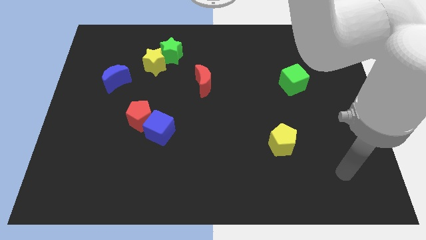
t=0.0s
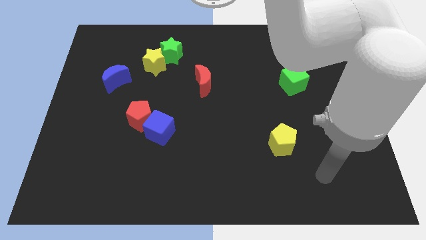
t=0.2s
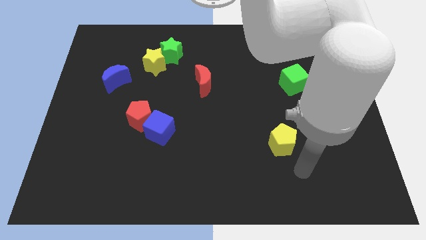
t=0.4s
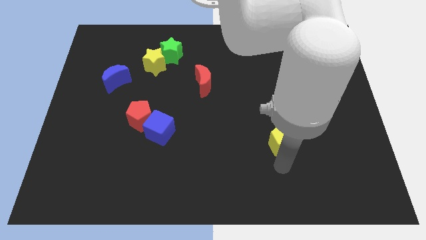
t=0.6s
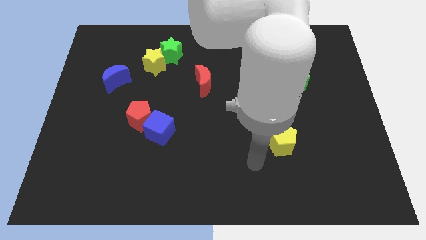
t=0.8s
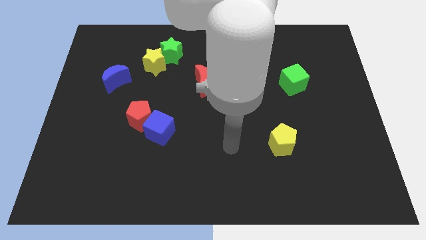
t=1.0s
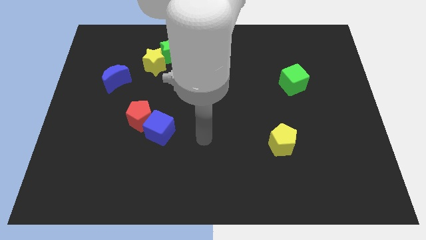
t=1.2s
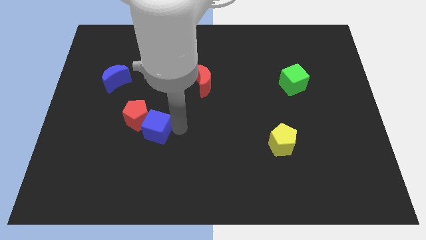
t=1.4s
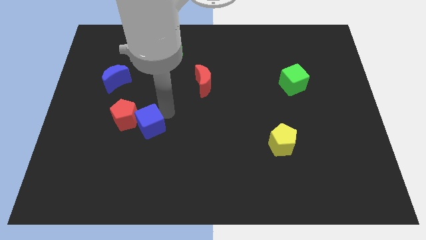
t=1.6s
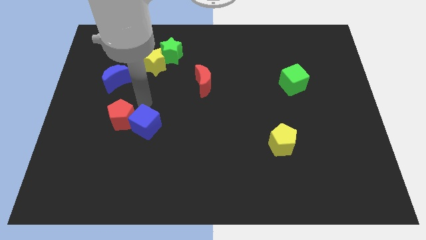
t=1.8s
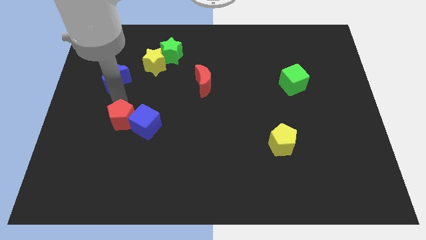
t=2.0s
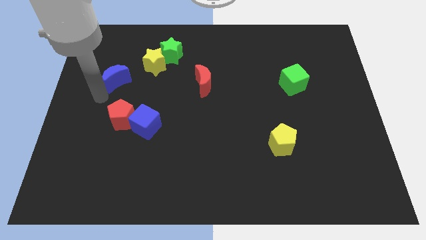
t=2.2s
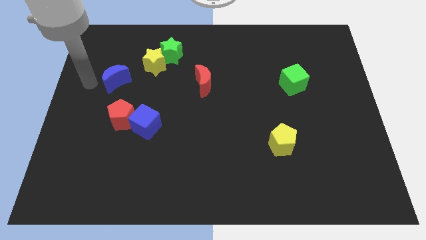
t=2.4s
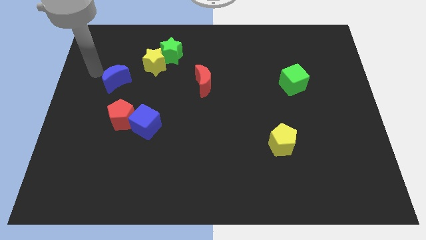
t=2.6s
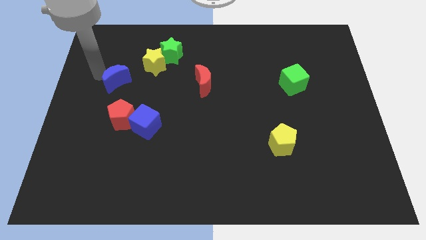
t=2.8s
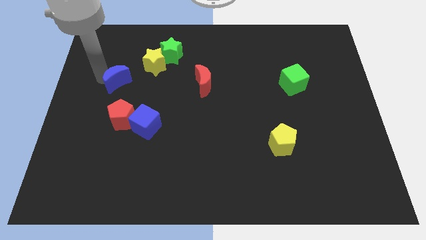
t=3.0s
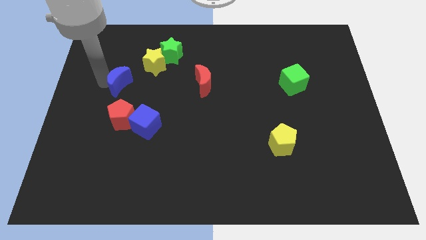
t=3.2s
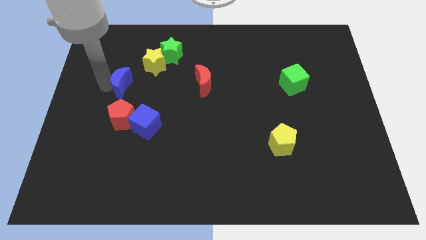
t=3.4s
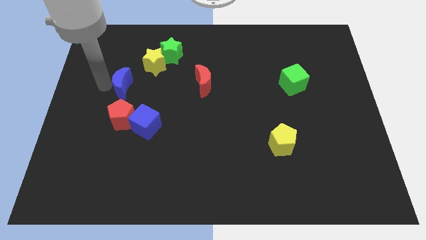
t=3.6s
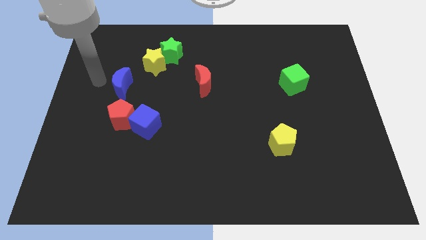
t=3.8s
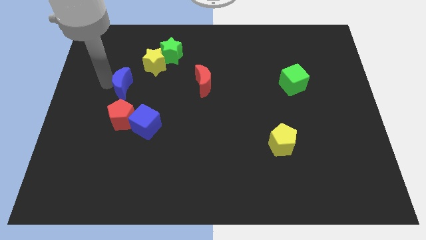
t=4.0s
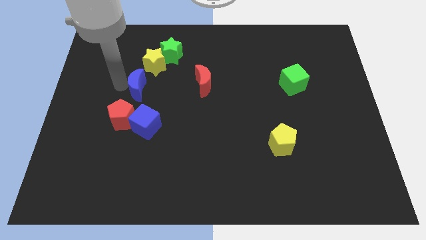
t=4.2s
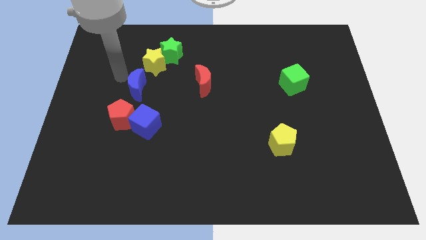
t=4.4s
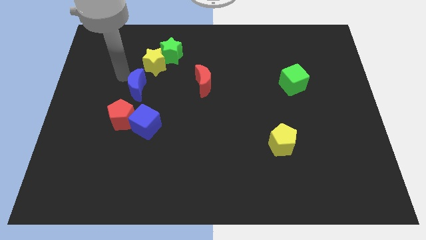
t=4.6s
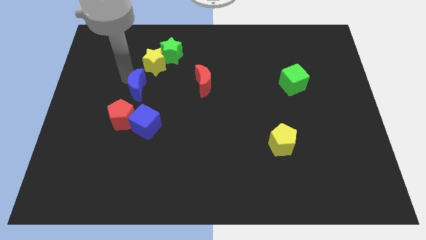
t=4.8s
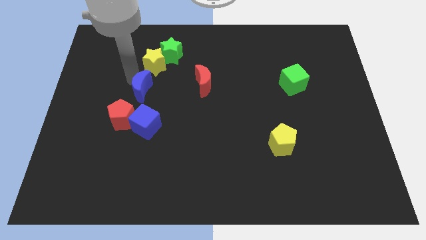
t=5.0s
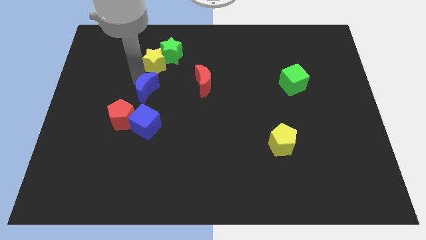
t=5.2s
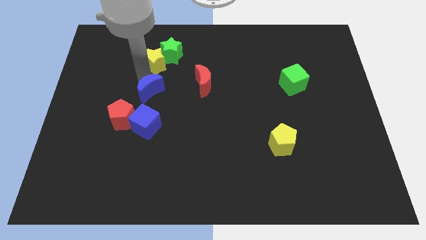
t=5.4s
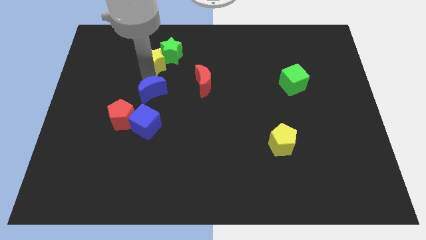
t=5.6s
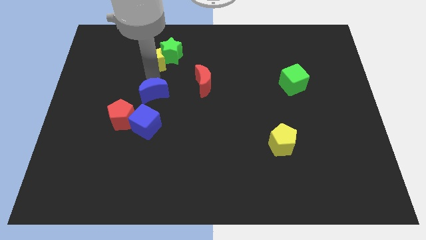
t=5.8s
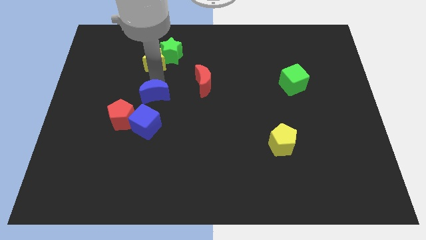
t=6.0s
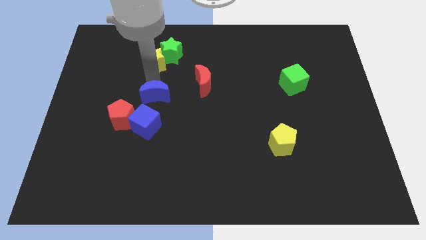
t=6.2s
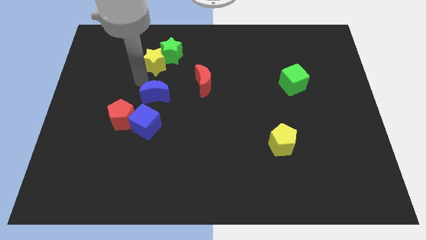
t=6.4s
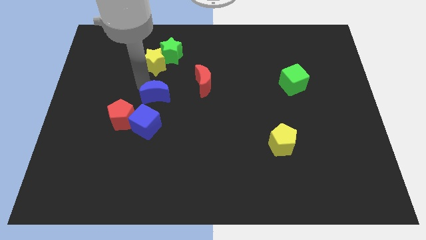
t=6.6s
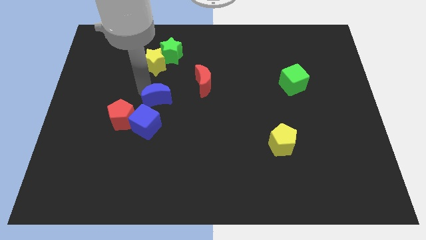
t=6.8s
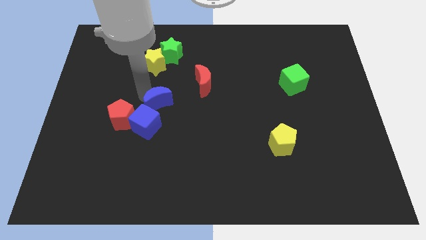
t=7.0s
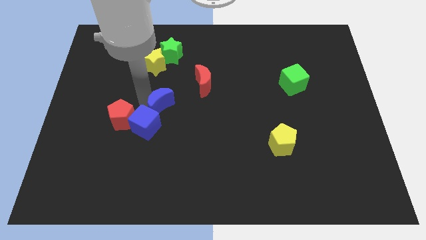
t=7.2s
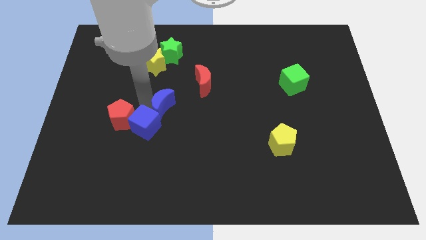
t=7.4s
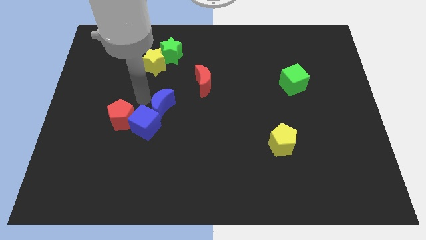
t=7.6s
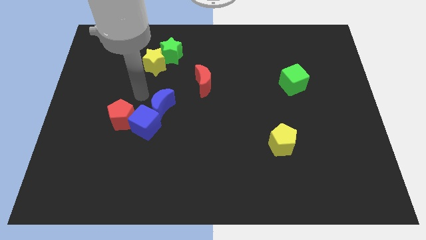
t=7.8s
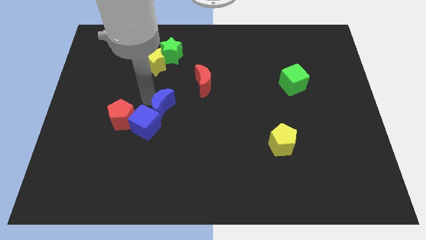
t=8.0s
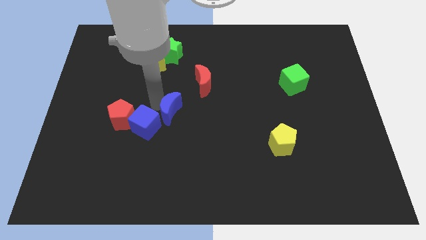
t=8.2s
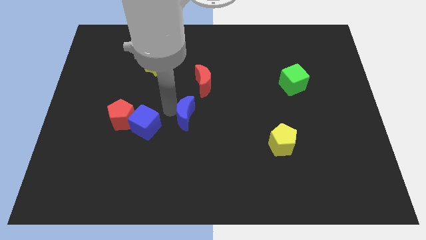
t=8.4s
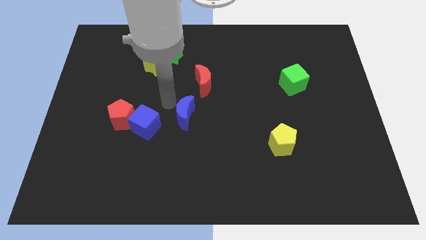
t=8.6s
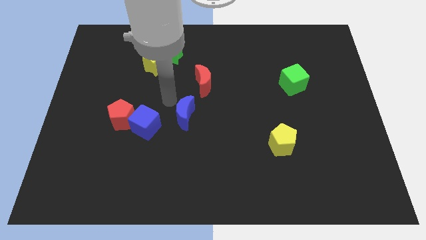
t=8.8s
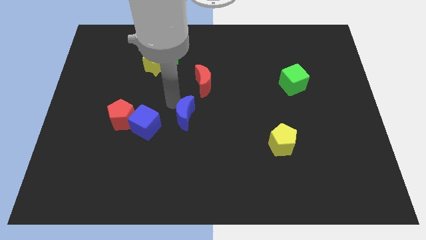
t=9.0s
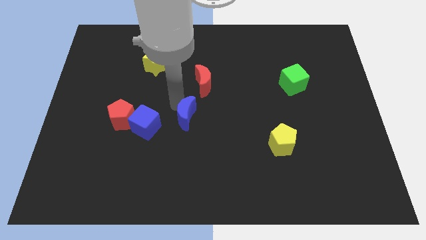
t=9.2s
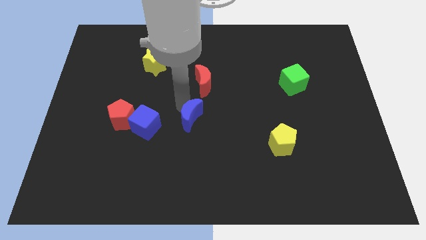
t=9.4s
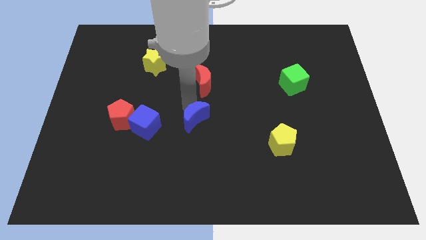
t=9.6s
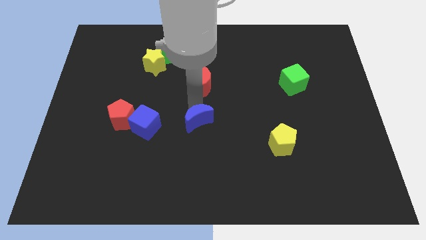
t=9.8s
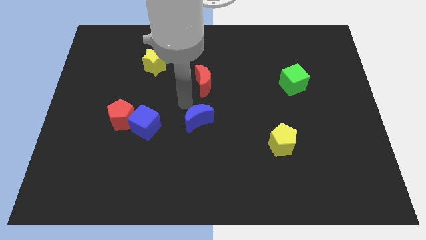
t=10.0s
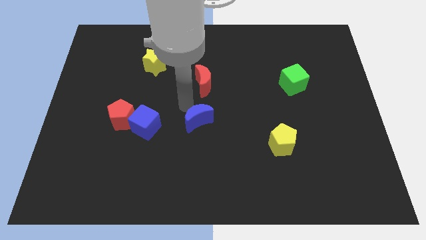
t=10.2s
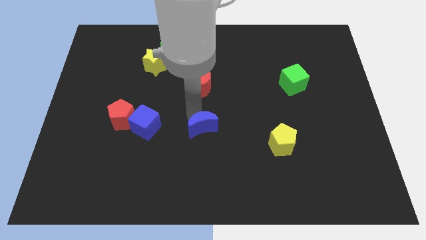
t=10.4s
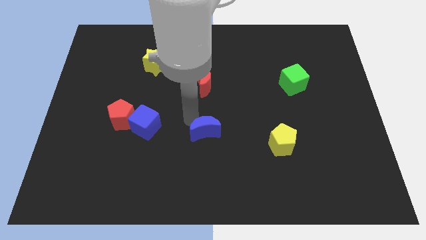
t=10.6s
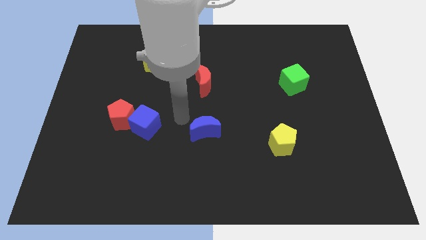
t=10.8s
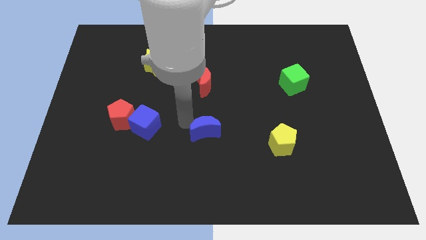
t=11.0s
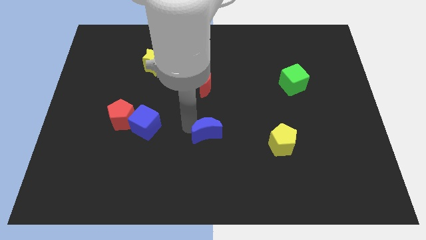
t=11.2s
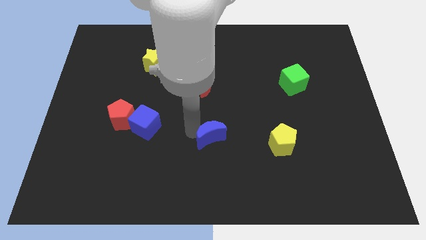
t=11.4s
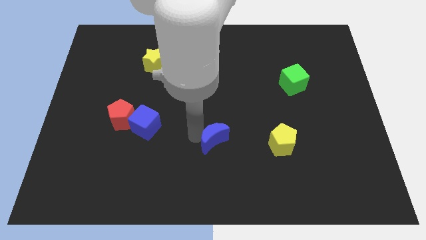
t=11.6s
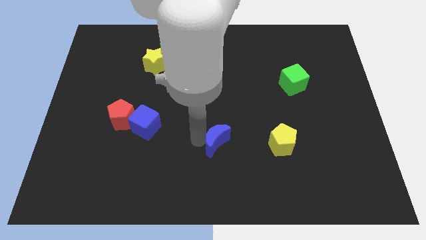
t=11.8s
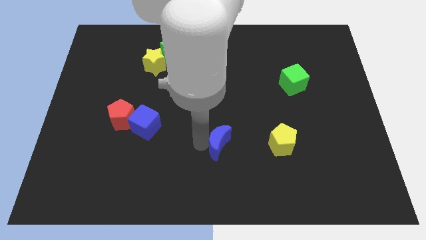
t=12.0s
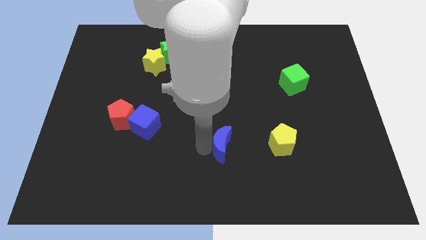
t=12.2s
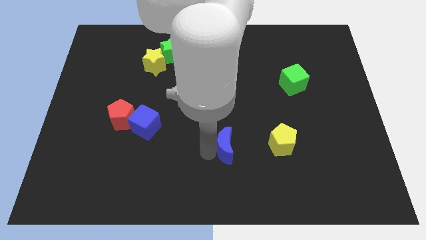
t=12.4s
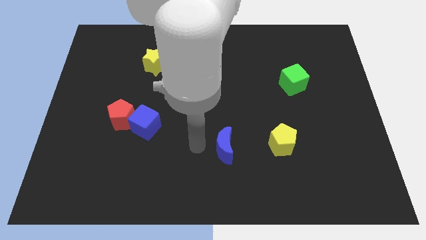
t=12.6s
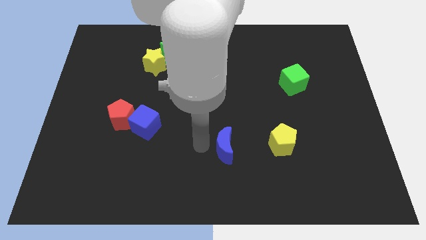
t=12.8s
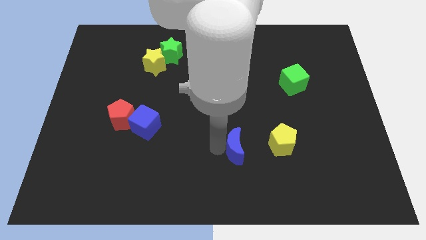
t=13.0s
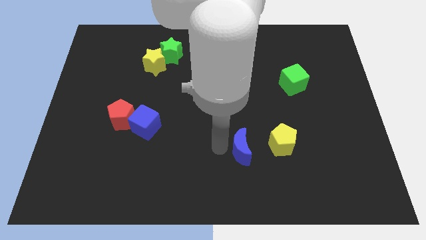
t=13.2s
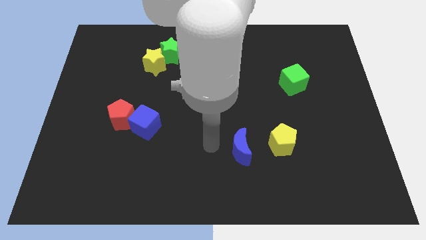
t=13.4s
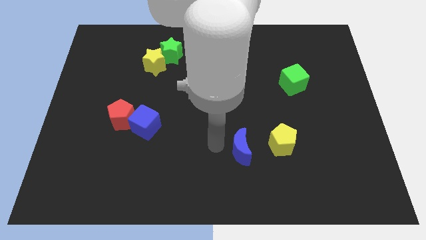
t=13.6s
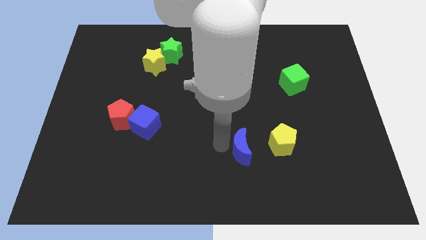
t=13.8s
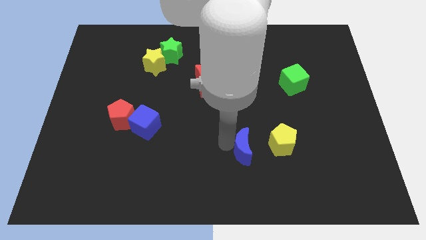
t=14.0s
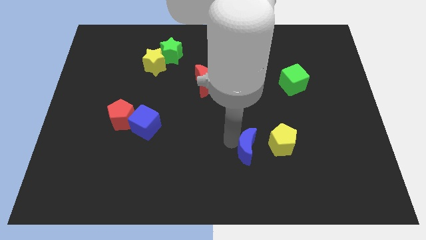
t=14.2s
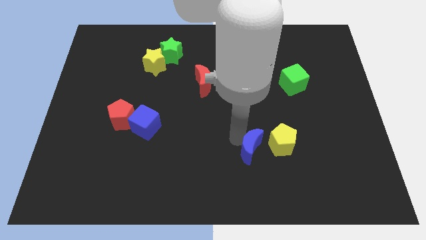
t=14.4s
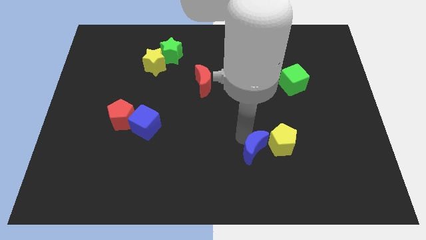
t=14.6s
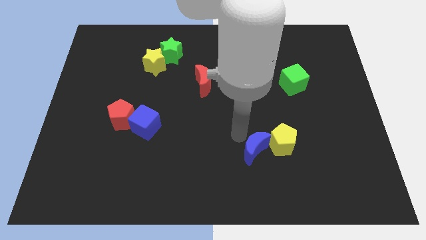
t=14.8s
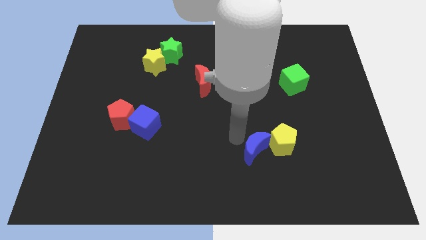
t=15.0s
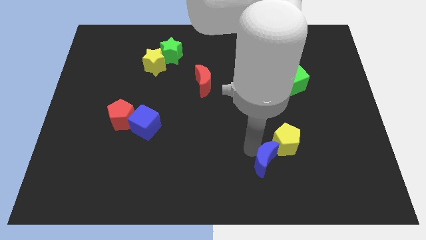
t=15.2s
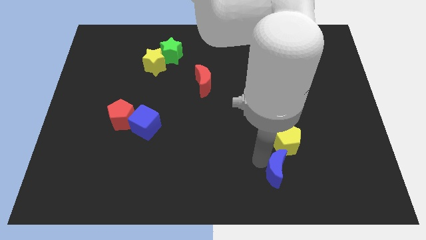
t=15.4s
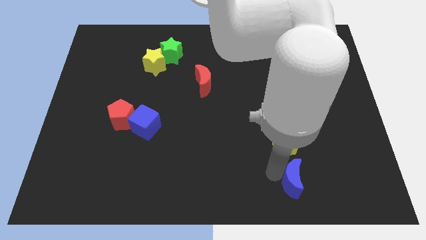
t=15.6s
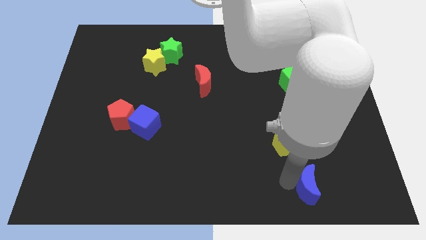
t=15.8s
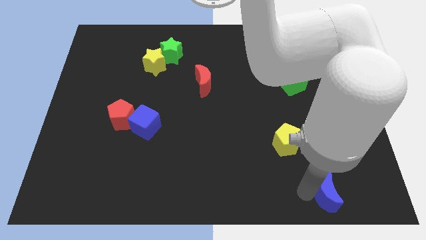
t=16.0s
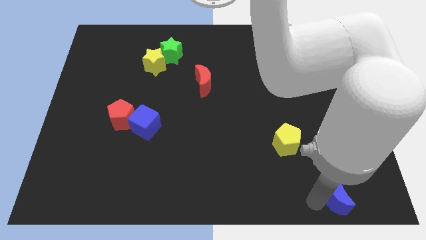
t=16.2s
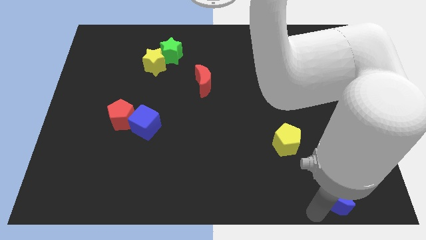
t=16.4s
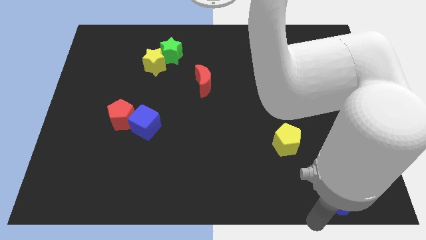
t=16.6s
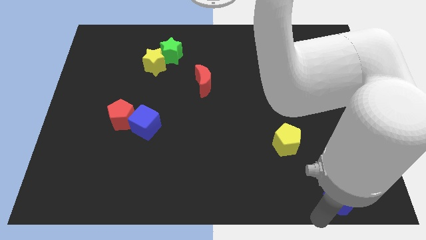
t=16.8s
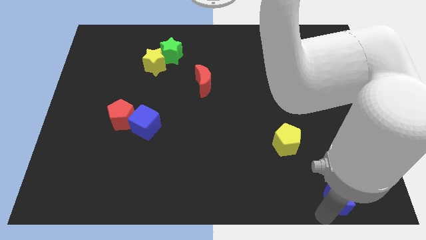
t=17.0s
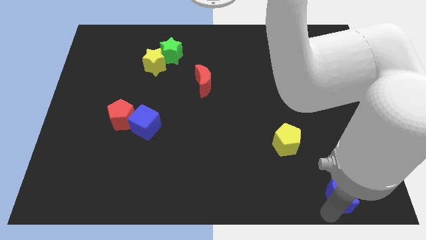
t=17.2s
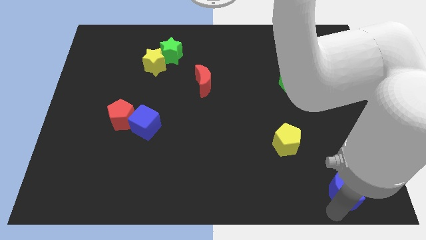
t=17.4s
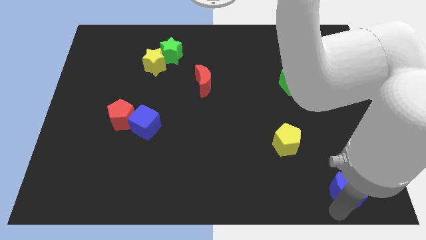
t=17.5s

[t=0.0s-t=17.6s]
put the blue moon to the bottom right corner
